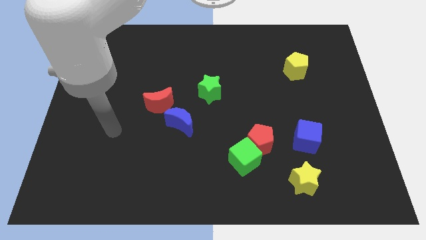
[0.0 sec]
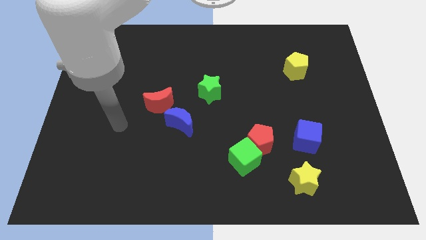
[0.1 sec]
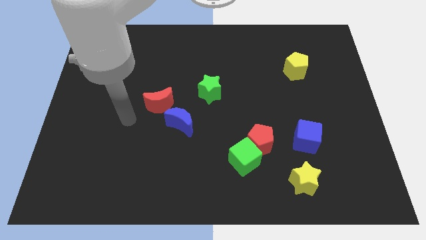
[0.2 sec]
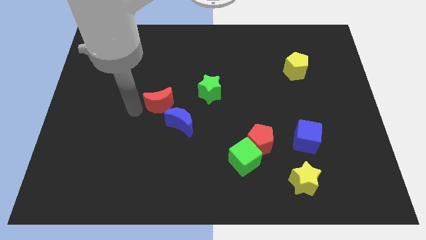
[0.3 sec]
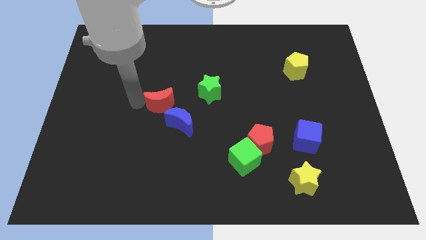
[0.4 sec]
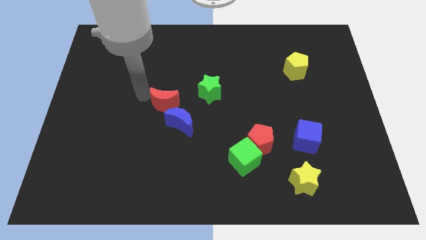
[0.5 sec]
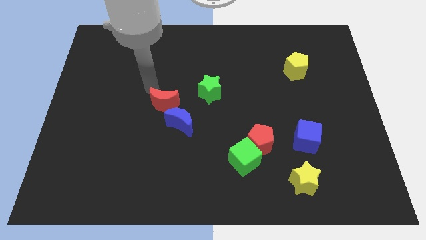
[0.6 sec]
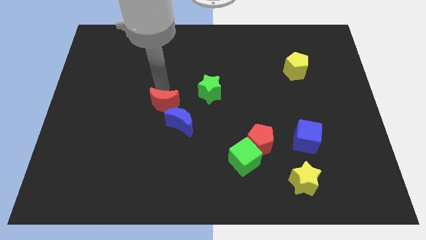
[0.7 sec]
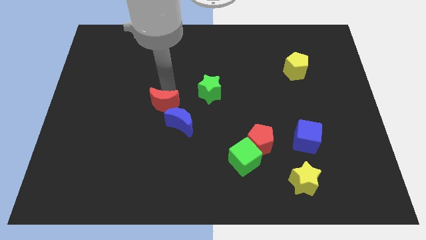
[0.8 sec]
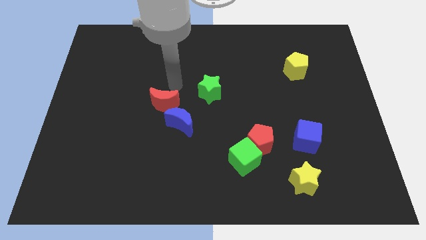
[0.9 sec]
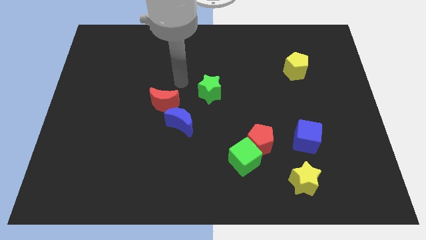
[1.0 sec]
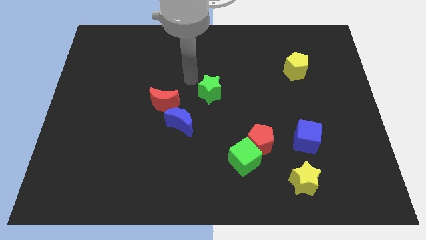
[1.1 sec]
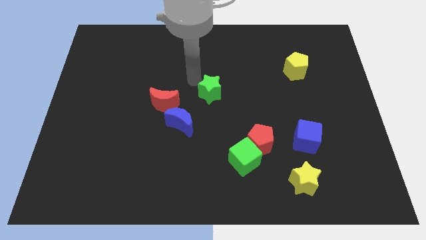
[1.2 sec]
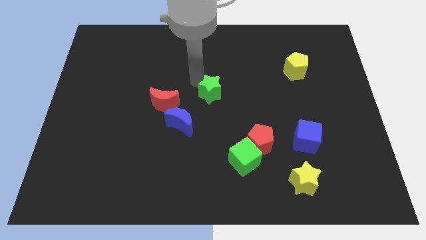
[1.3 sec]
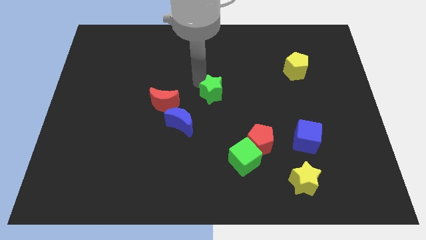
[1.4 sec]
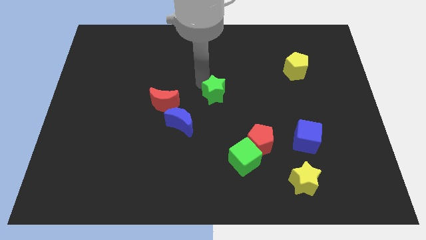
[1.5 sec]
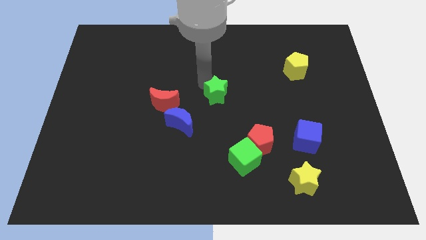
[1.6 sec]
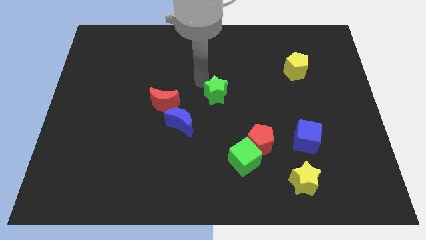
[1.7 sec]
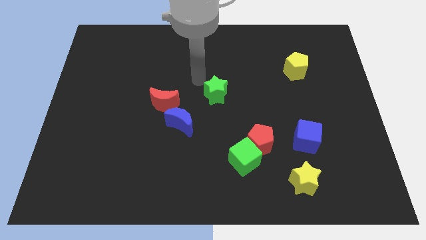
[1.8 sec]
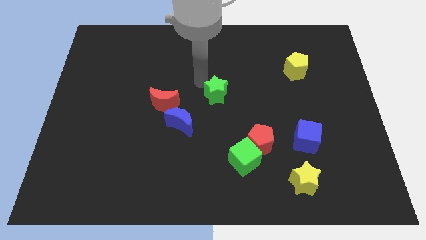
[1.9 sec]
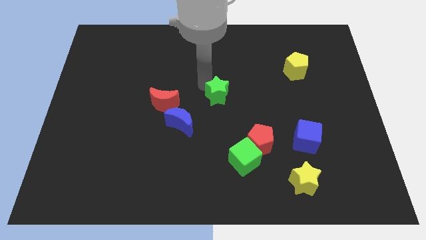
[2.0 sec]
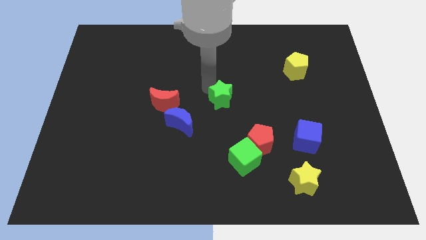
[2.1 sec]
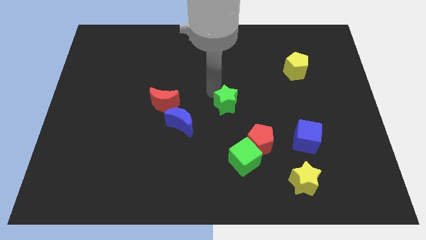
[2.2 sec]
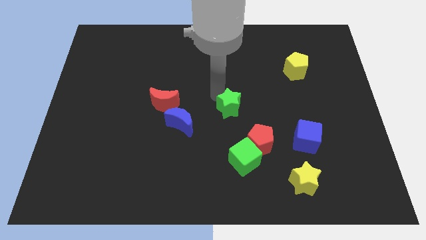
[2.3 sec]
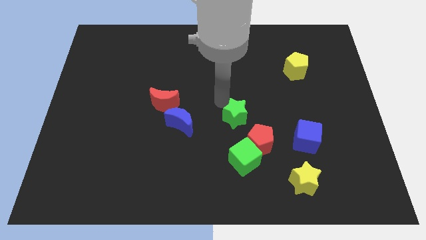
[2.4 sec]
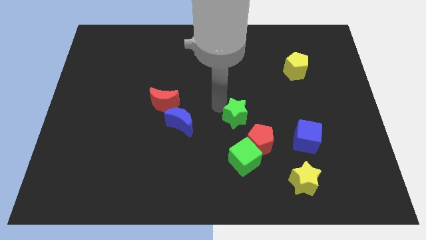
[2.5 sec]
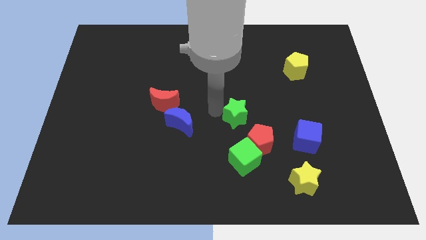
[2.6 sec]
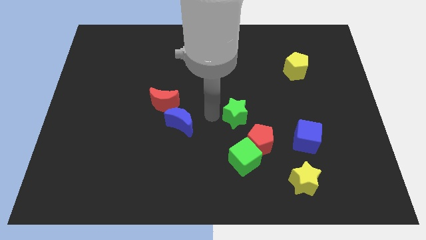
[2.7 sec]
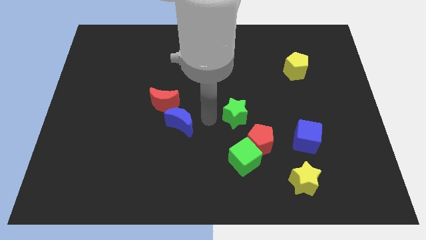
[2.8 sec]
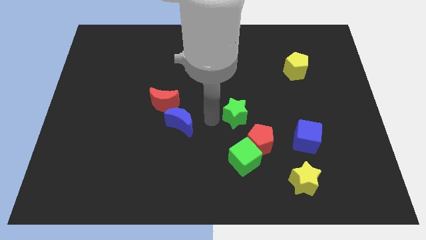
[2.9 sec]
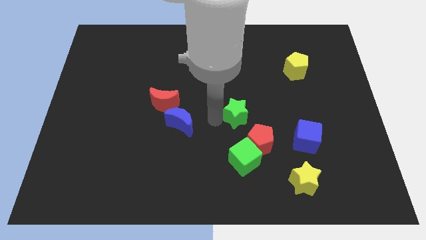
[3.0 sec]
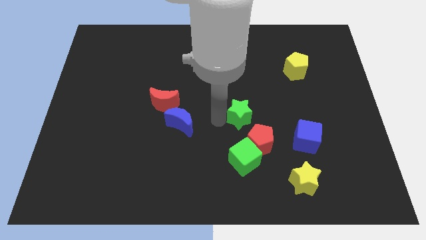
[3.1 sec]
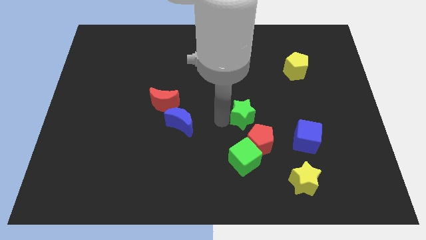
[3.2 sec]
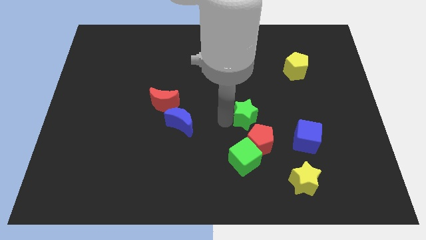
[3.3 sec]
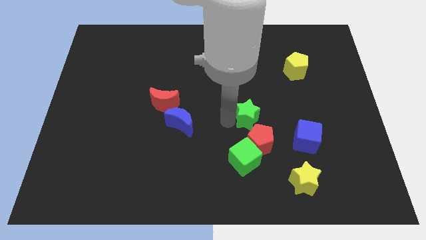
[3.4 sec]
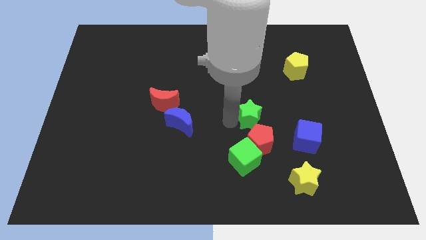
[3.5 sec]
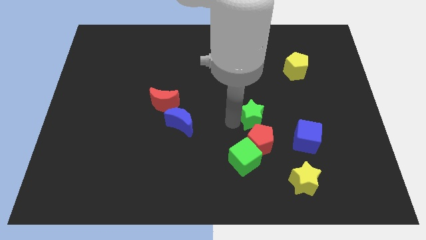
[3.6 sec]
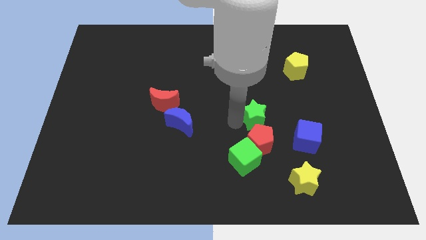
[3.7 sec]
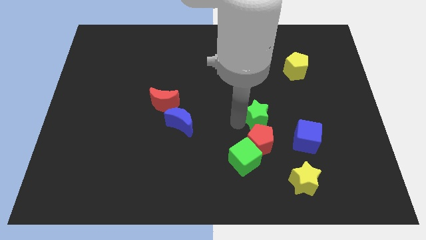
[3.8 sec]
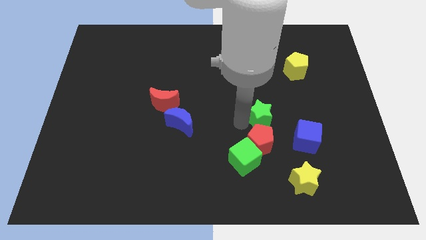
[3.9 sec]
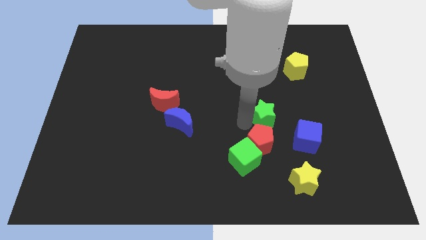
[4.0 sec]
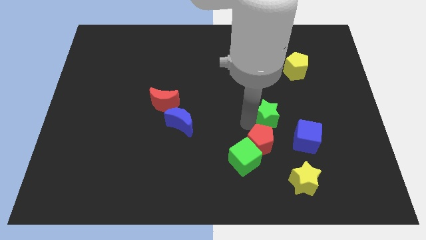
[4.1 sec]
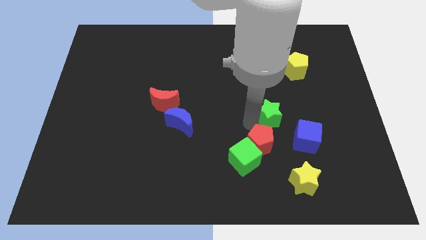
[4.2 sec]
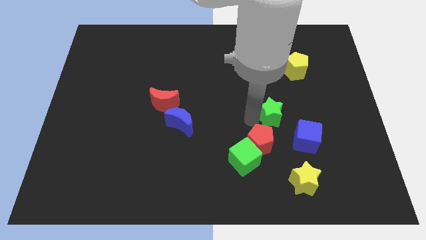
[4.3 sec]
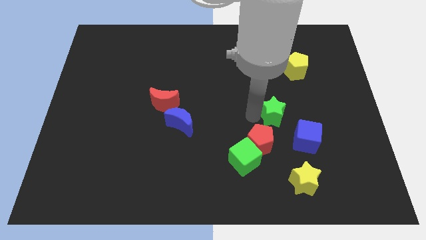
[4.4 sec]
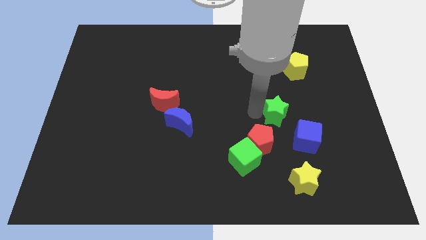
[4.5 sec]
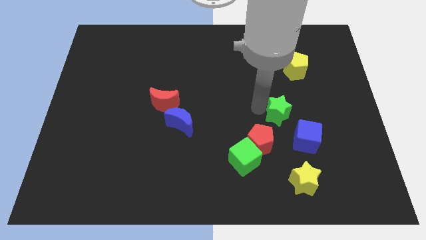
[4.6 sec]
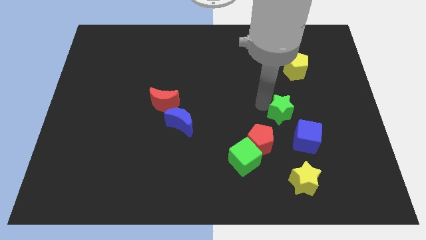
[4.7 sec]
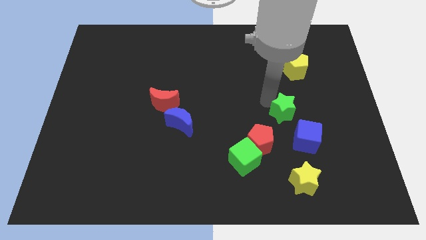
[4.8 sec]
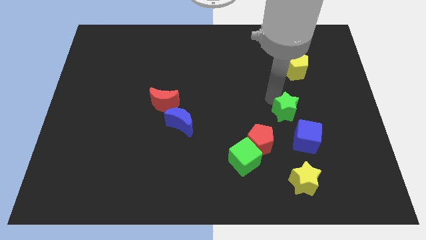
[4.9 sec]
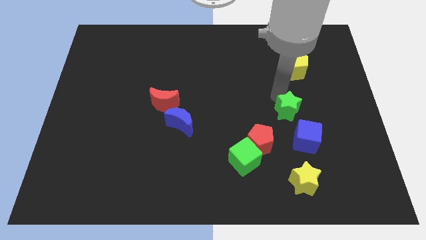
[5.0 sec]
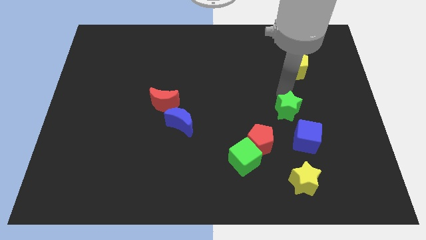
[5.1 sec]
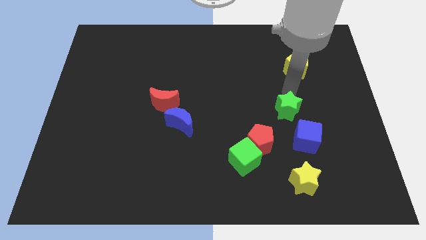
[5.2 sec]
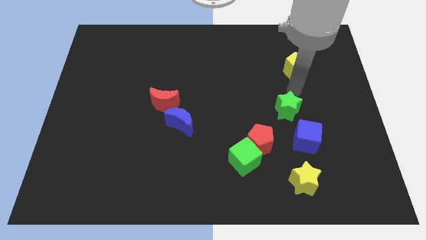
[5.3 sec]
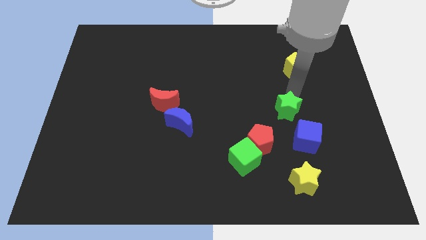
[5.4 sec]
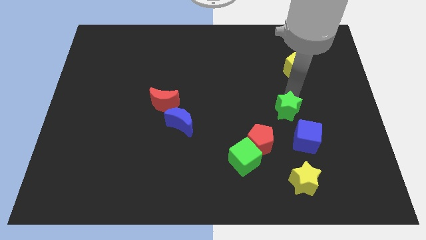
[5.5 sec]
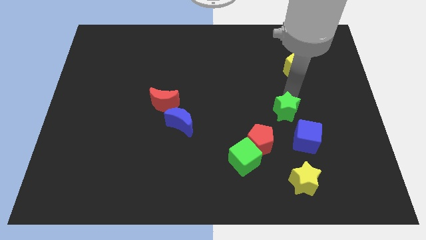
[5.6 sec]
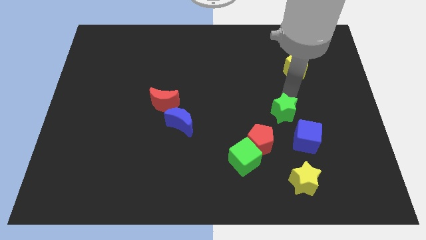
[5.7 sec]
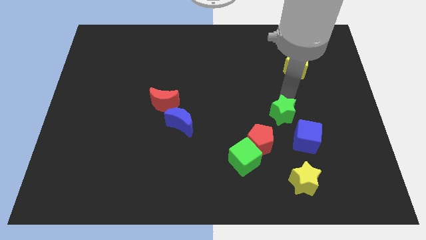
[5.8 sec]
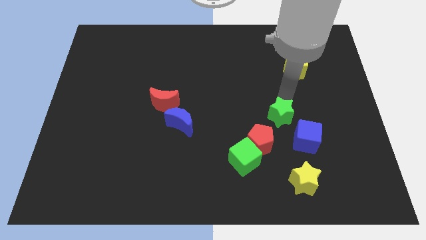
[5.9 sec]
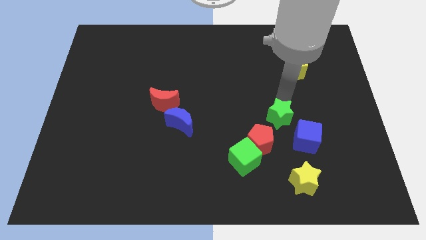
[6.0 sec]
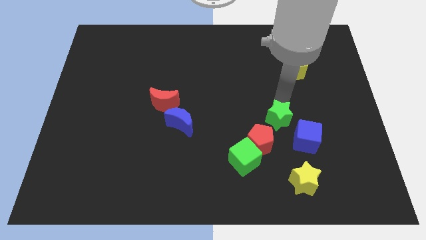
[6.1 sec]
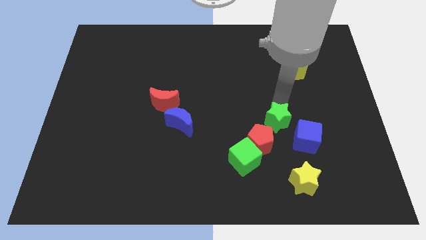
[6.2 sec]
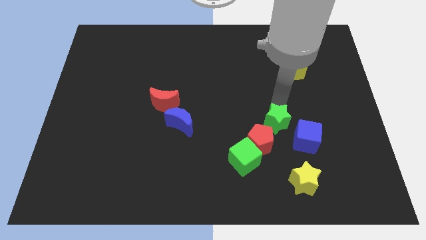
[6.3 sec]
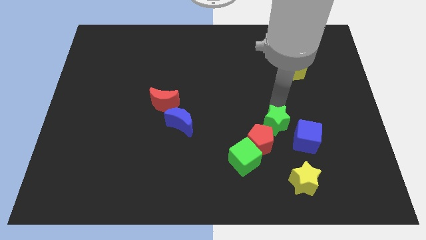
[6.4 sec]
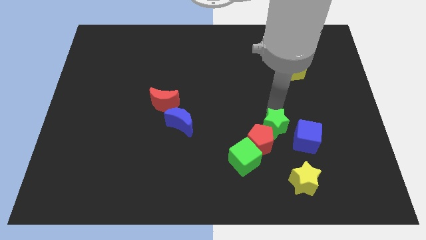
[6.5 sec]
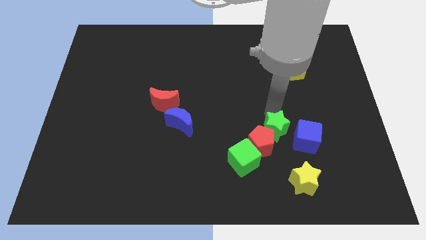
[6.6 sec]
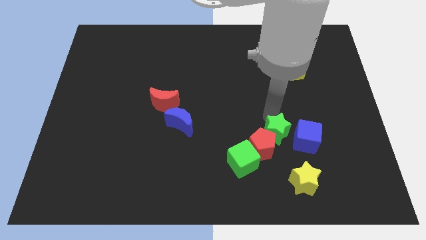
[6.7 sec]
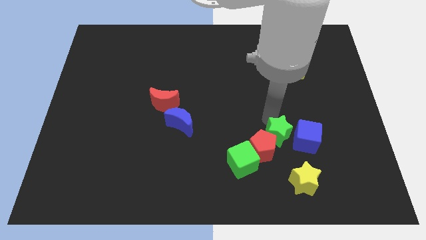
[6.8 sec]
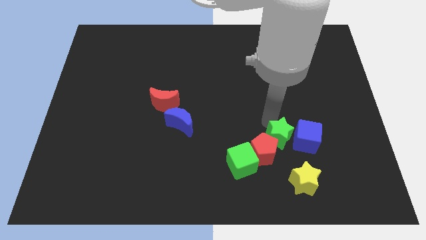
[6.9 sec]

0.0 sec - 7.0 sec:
put the green star to the bottom left of the blue cube

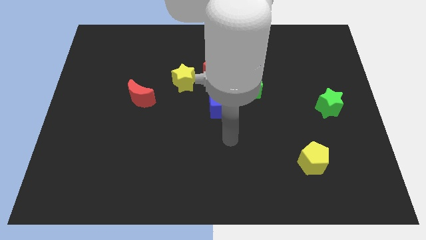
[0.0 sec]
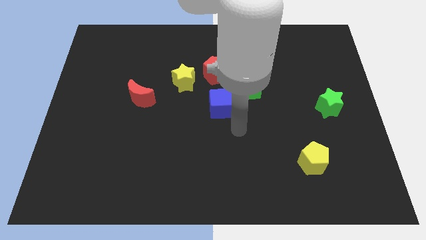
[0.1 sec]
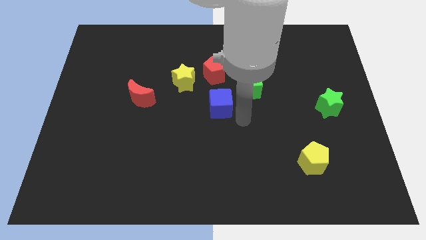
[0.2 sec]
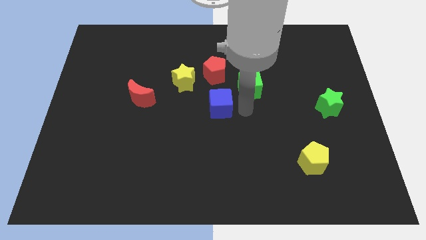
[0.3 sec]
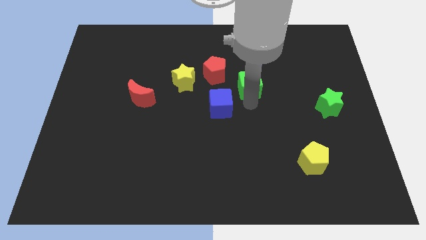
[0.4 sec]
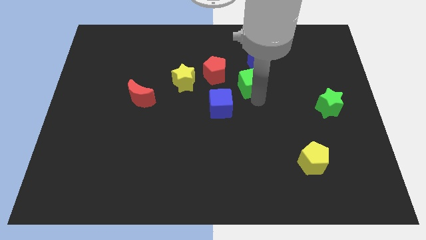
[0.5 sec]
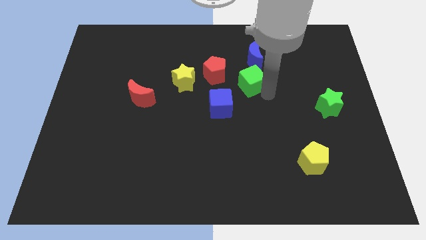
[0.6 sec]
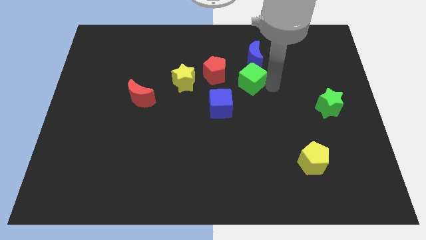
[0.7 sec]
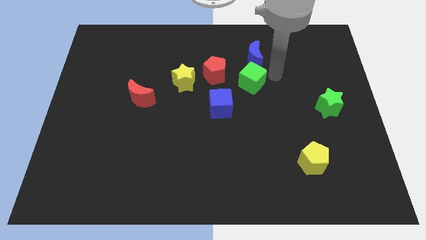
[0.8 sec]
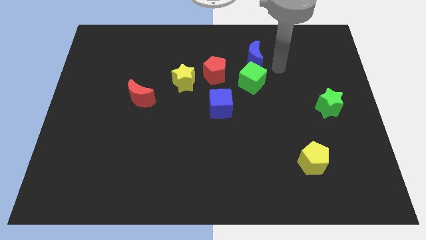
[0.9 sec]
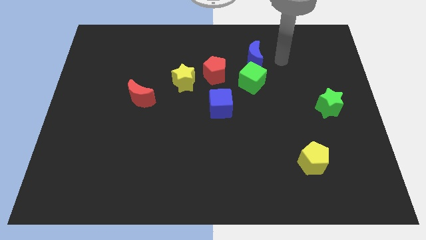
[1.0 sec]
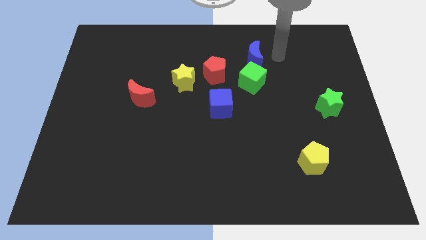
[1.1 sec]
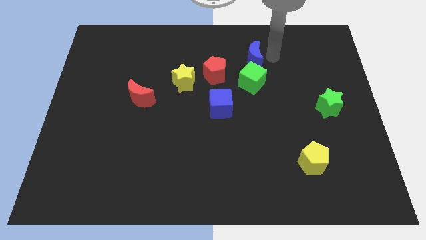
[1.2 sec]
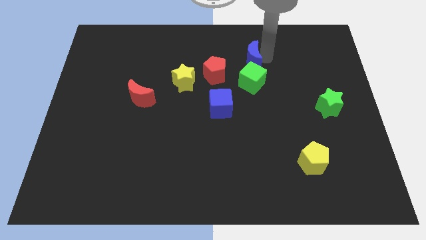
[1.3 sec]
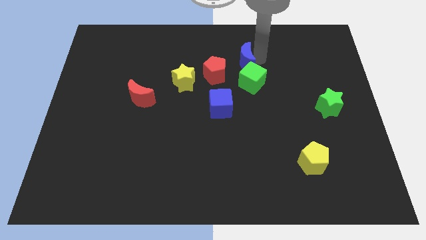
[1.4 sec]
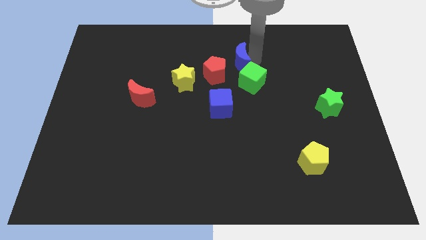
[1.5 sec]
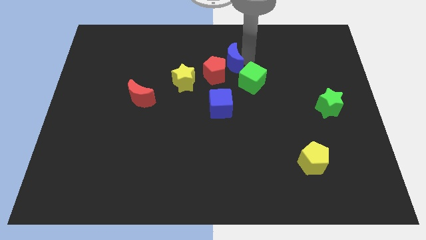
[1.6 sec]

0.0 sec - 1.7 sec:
move the blue moon to the top of the blue cube
